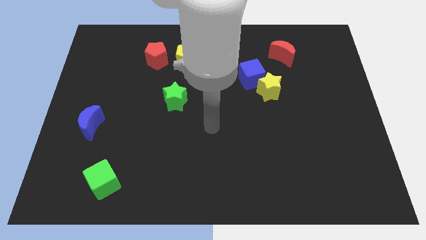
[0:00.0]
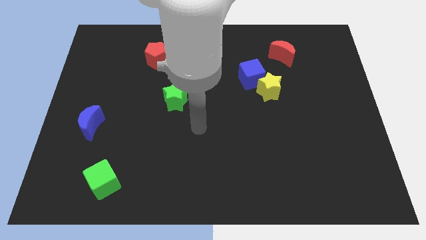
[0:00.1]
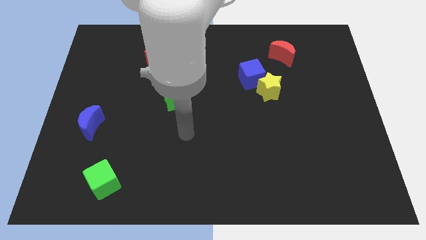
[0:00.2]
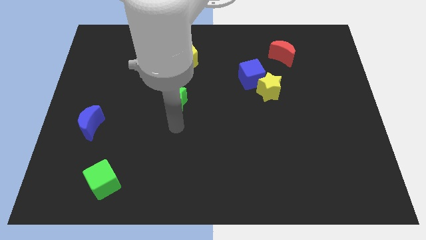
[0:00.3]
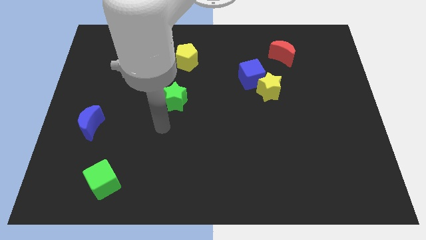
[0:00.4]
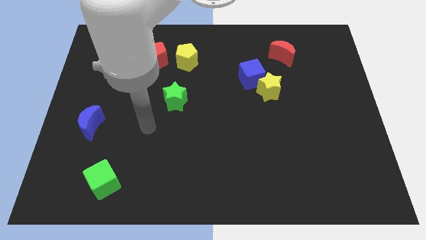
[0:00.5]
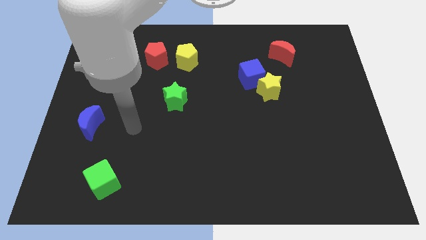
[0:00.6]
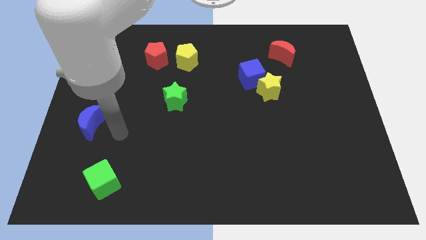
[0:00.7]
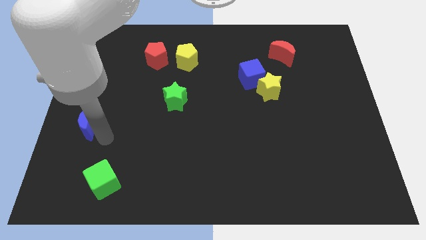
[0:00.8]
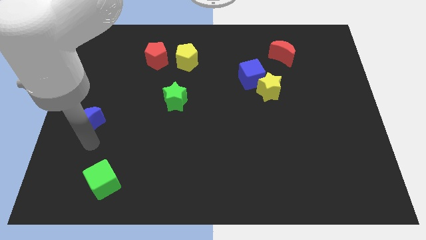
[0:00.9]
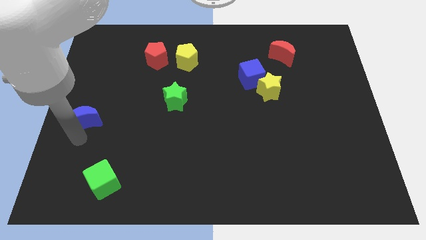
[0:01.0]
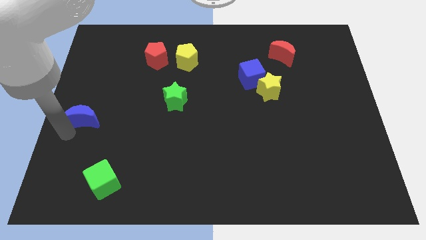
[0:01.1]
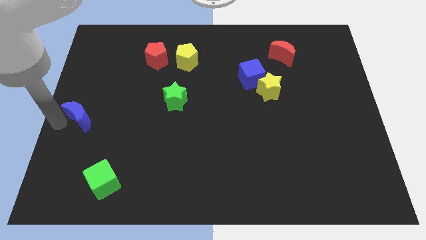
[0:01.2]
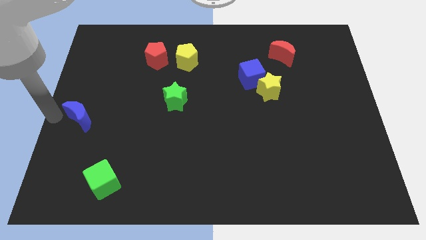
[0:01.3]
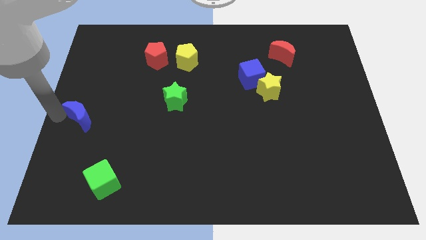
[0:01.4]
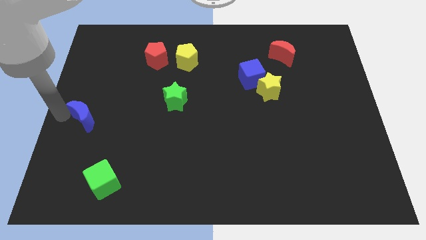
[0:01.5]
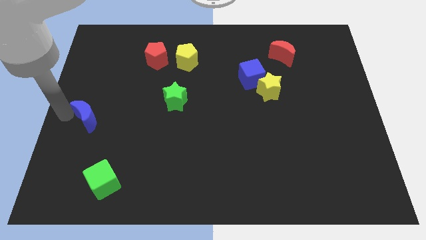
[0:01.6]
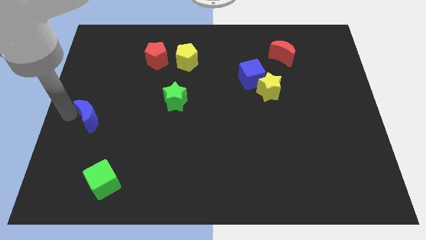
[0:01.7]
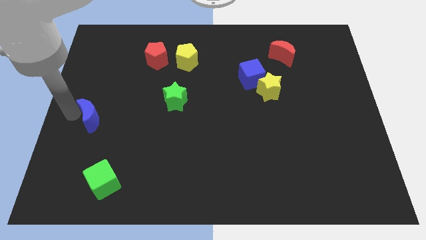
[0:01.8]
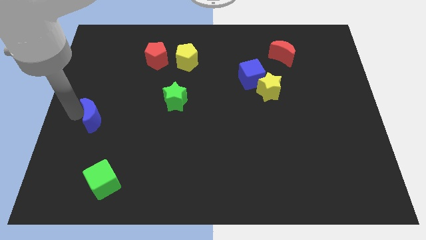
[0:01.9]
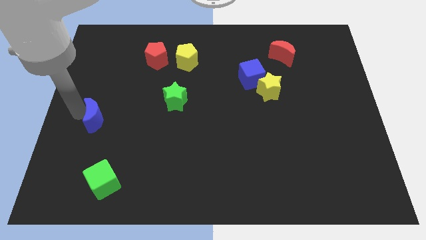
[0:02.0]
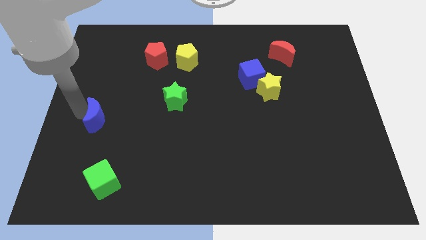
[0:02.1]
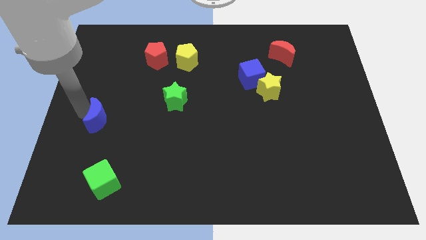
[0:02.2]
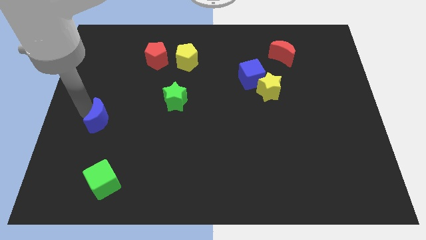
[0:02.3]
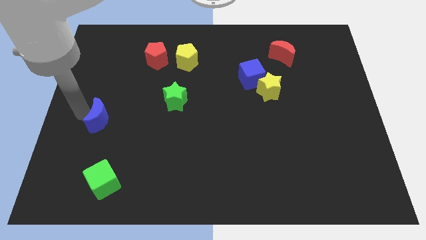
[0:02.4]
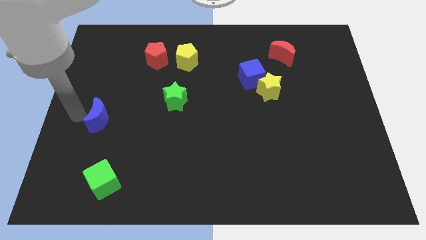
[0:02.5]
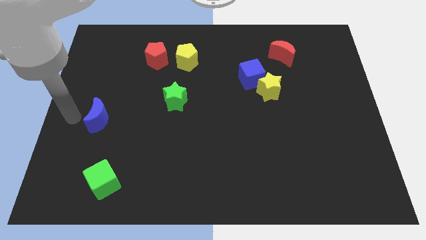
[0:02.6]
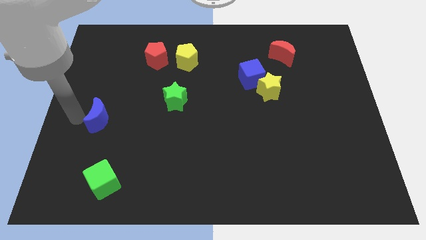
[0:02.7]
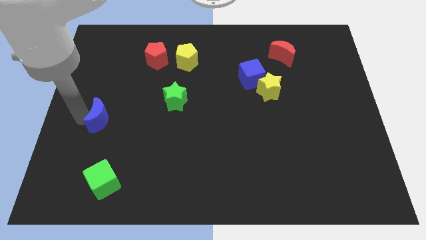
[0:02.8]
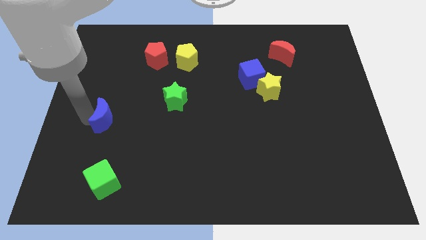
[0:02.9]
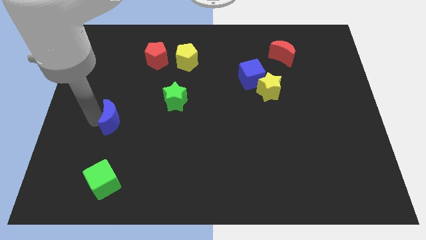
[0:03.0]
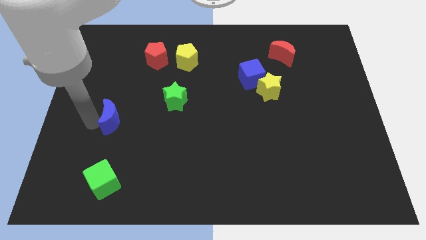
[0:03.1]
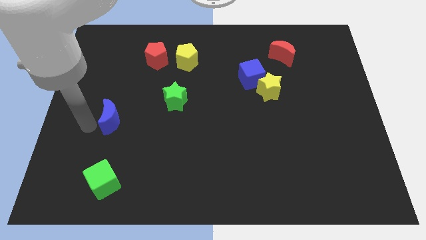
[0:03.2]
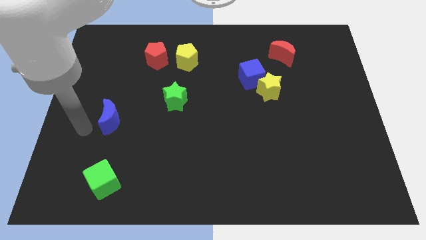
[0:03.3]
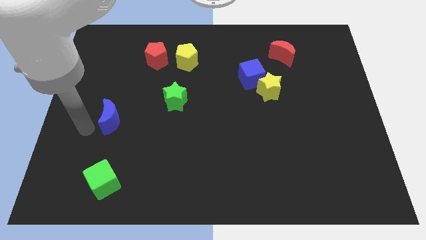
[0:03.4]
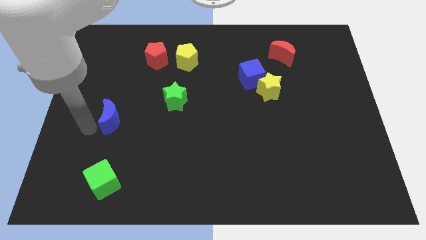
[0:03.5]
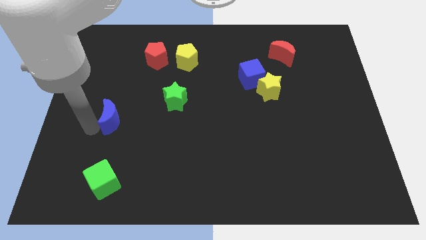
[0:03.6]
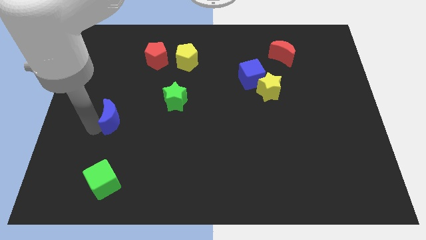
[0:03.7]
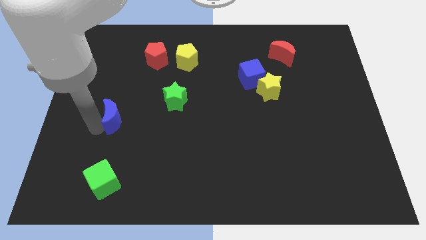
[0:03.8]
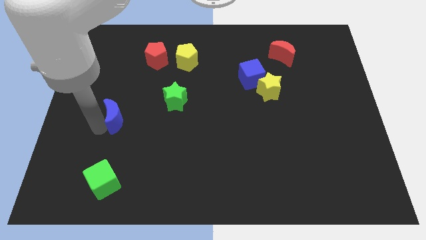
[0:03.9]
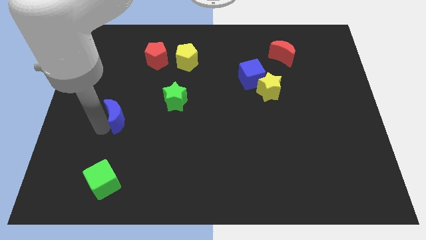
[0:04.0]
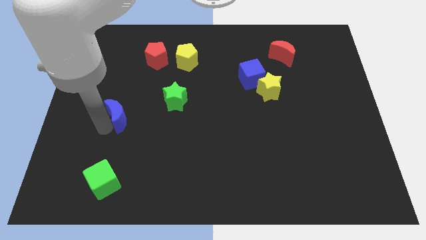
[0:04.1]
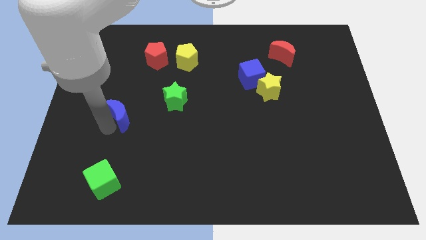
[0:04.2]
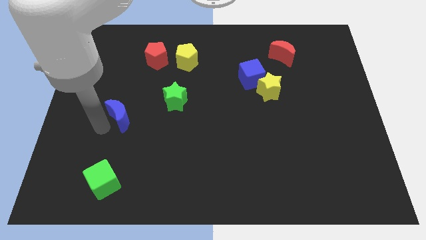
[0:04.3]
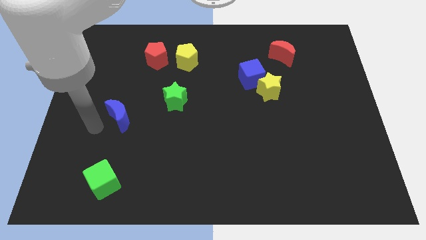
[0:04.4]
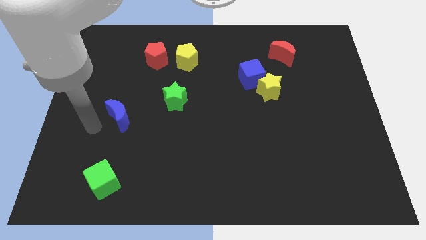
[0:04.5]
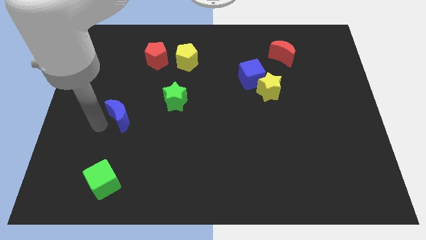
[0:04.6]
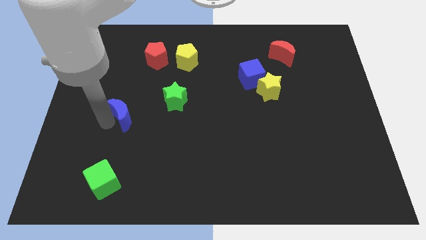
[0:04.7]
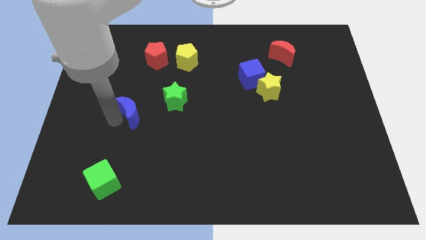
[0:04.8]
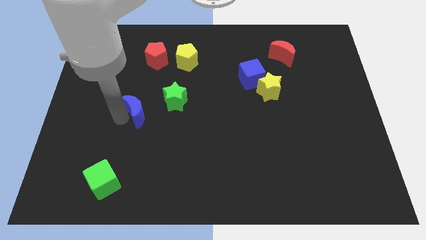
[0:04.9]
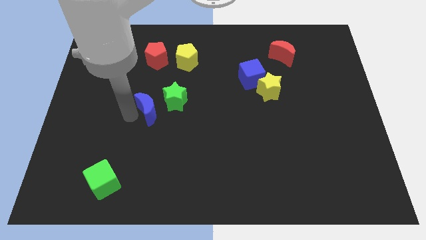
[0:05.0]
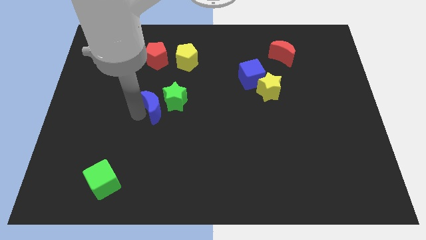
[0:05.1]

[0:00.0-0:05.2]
push the blue moon to the green star

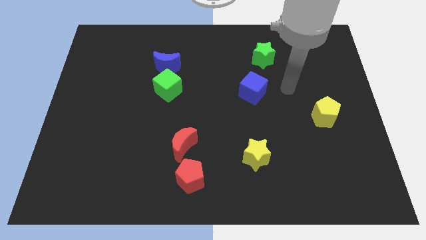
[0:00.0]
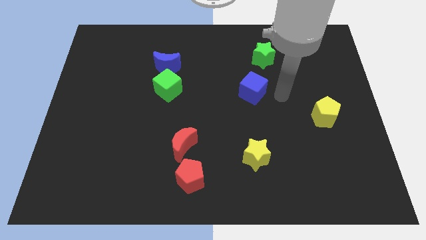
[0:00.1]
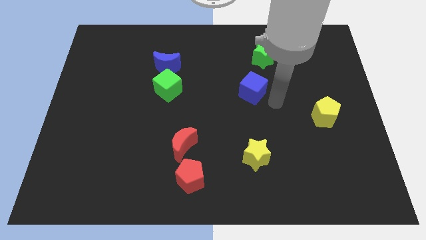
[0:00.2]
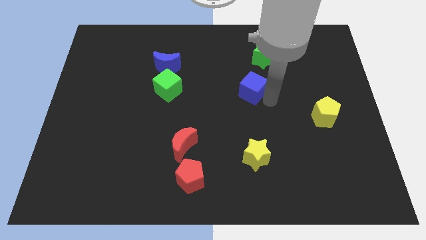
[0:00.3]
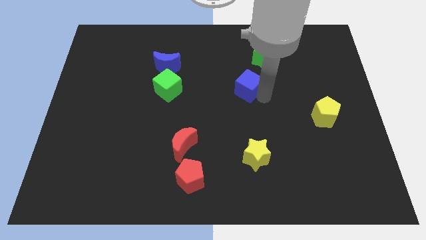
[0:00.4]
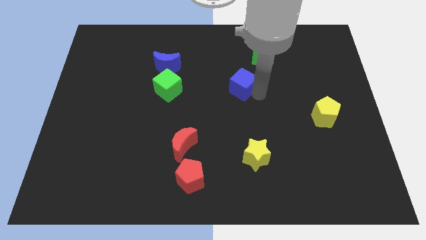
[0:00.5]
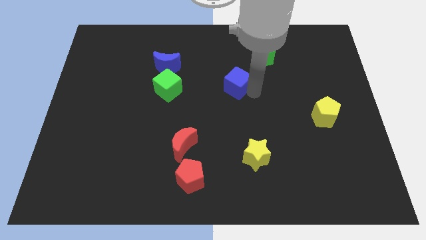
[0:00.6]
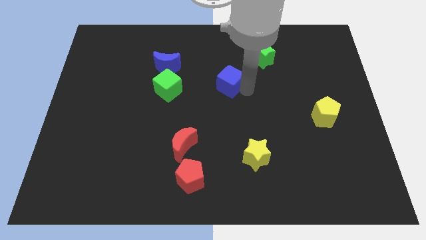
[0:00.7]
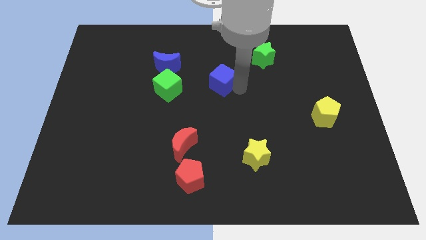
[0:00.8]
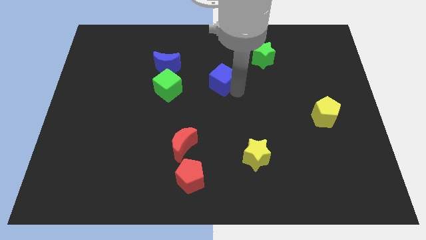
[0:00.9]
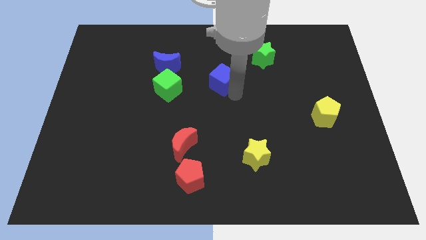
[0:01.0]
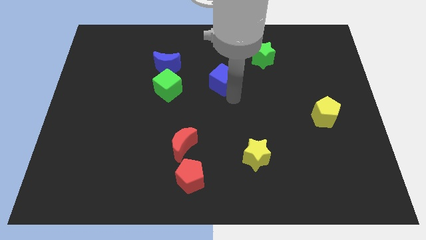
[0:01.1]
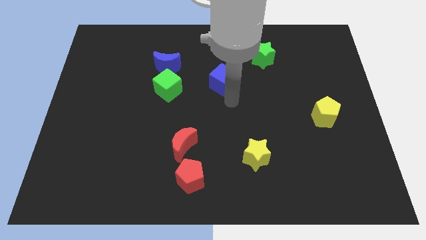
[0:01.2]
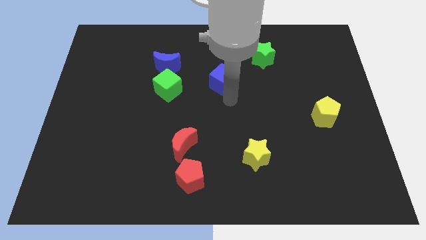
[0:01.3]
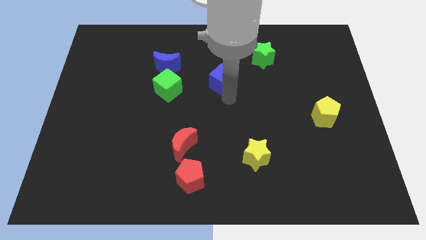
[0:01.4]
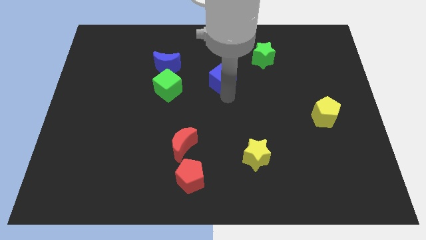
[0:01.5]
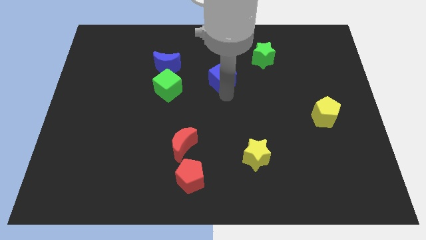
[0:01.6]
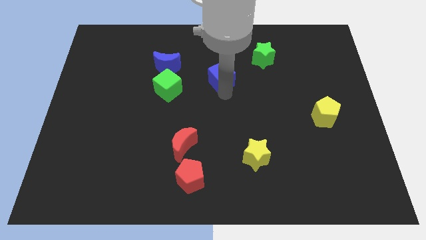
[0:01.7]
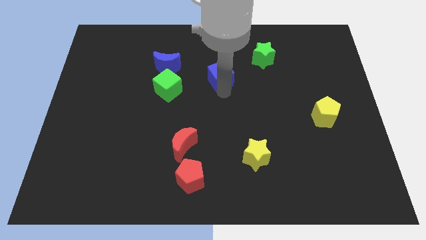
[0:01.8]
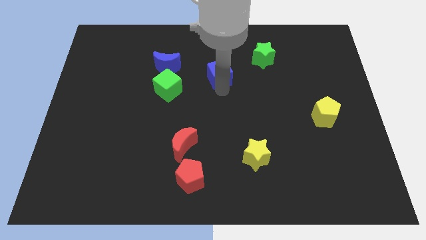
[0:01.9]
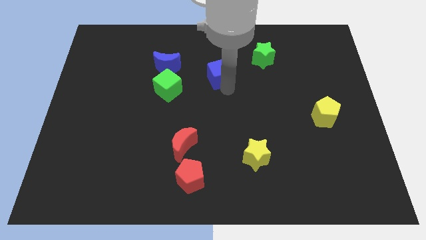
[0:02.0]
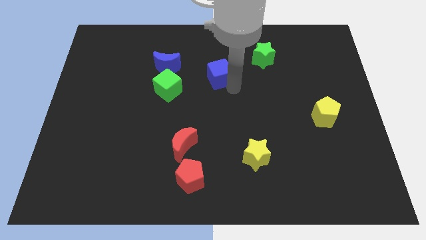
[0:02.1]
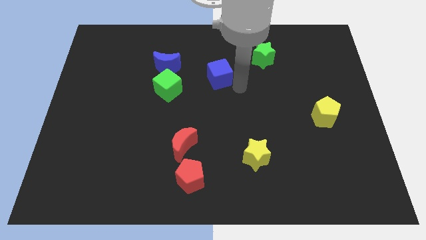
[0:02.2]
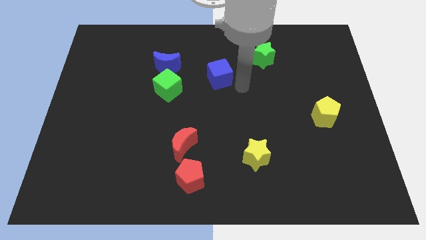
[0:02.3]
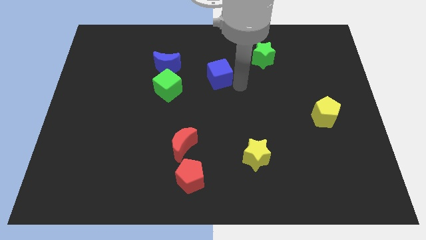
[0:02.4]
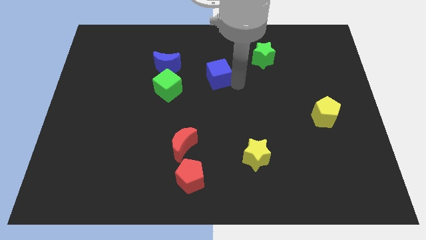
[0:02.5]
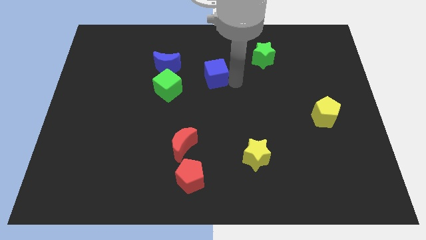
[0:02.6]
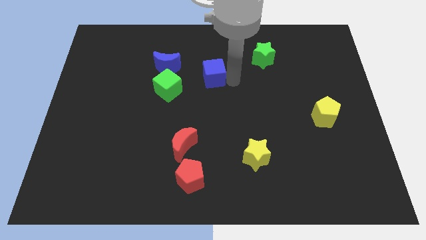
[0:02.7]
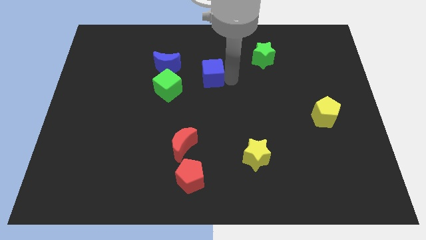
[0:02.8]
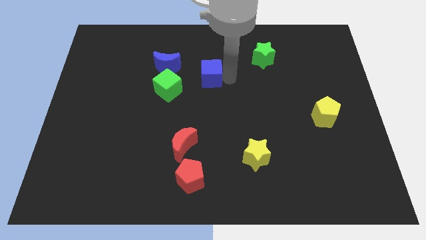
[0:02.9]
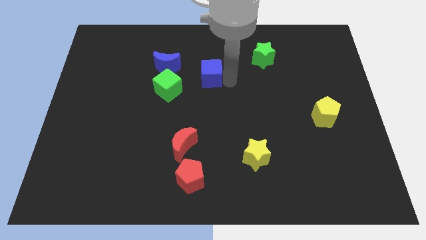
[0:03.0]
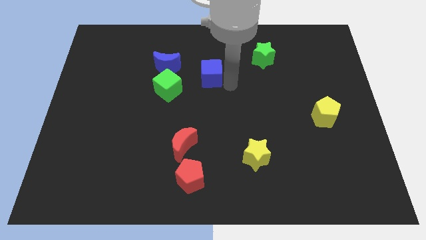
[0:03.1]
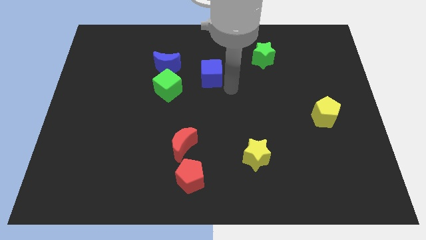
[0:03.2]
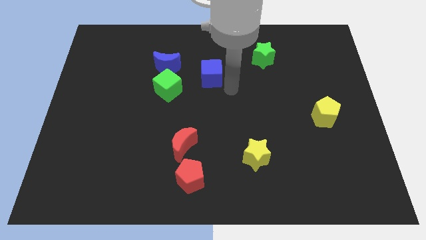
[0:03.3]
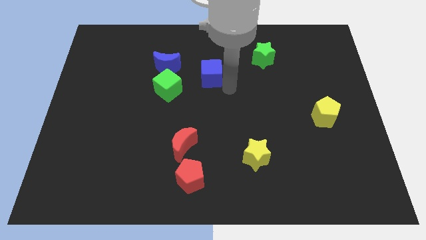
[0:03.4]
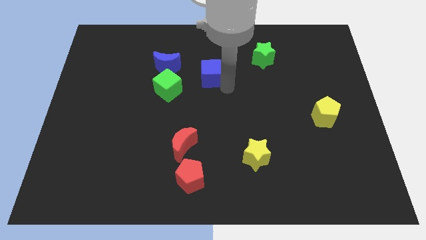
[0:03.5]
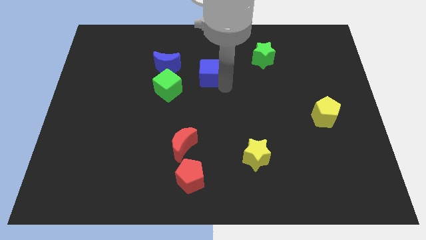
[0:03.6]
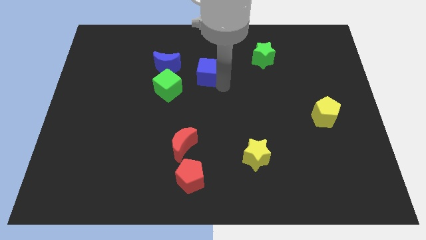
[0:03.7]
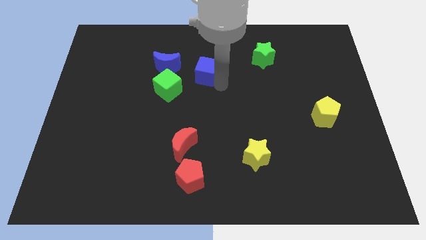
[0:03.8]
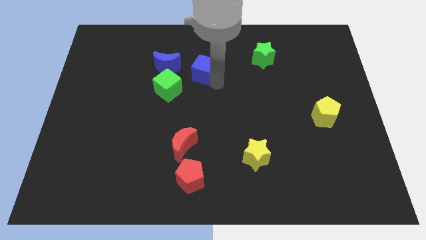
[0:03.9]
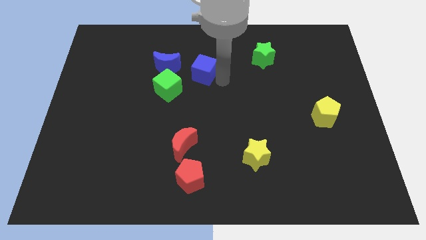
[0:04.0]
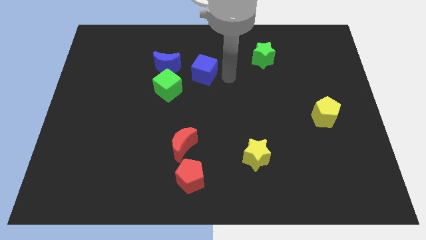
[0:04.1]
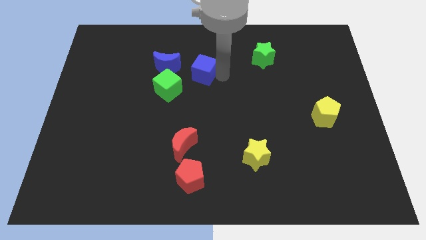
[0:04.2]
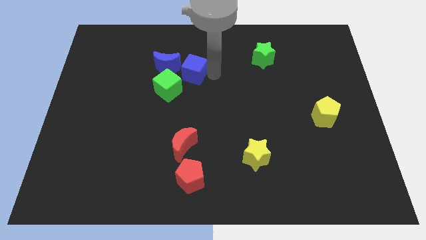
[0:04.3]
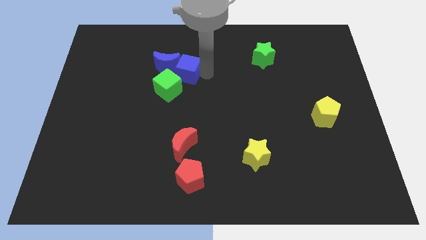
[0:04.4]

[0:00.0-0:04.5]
push the blue cube towards the blue moon
